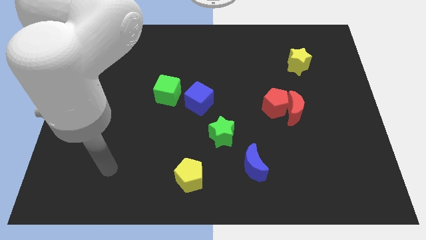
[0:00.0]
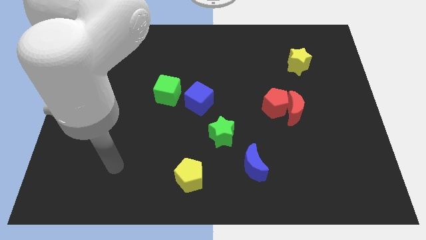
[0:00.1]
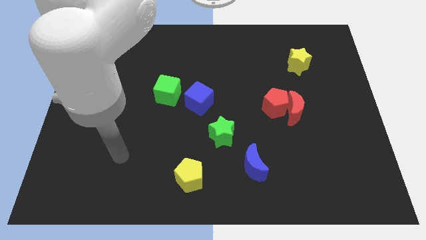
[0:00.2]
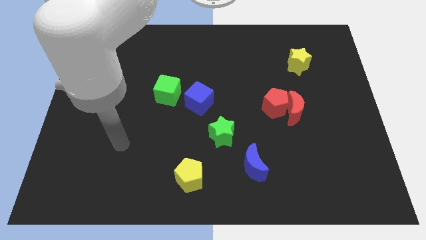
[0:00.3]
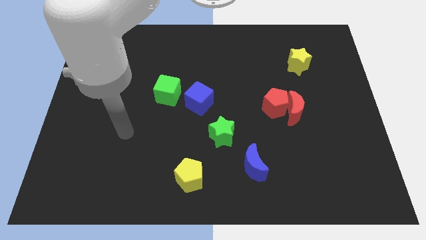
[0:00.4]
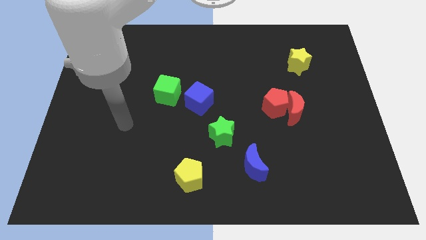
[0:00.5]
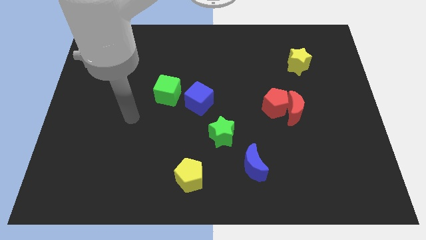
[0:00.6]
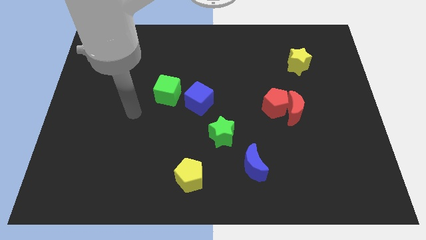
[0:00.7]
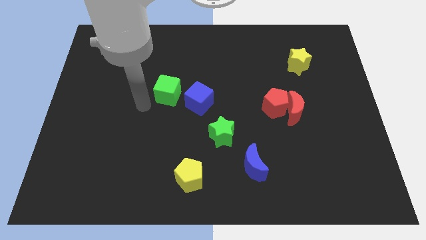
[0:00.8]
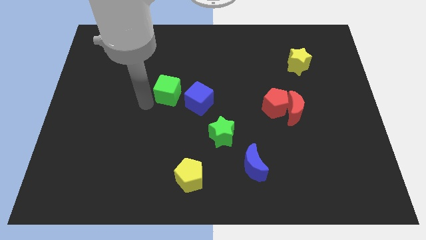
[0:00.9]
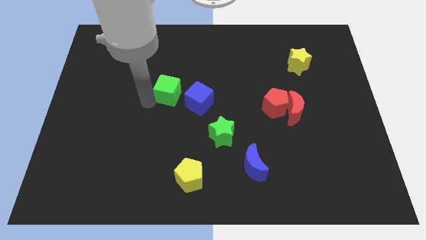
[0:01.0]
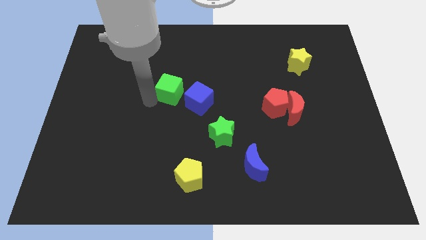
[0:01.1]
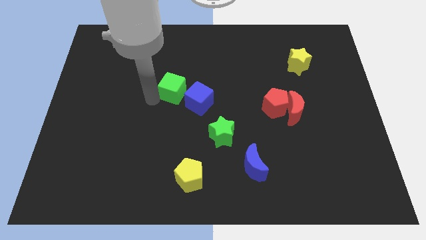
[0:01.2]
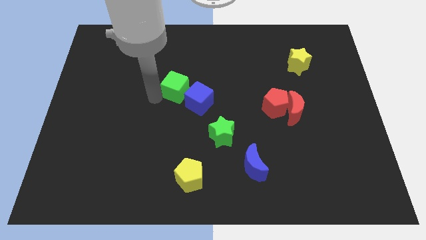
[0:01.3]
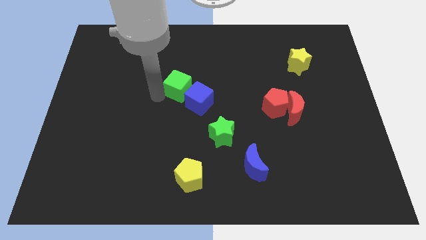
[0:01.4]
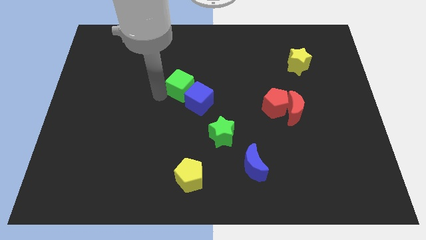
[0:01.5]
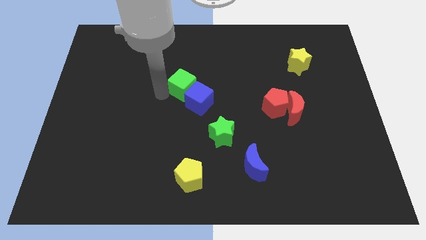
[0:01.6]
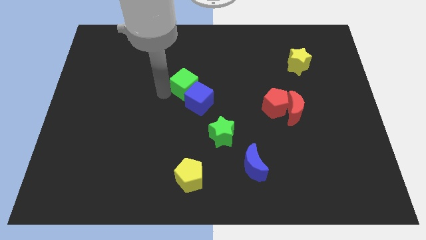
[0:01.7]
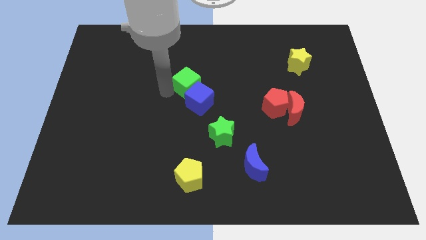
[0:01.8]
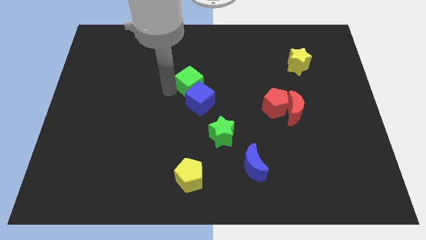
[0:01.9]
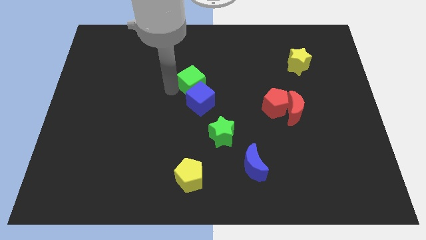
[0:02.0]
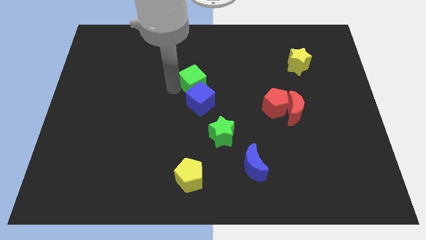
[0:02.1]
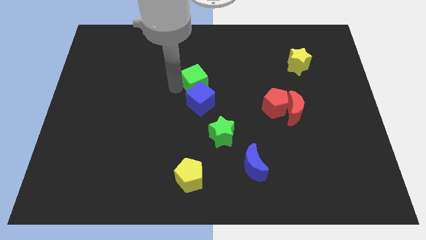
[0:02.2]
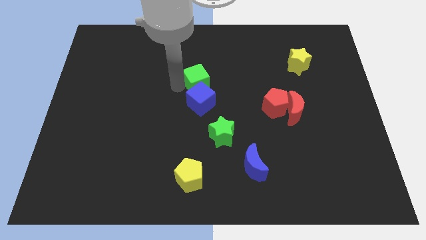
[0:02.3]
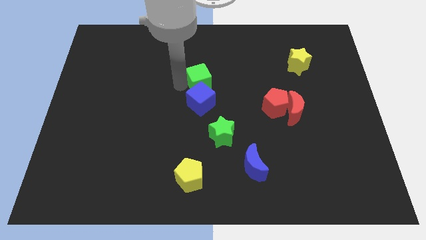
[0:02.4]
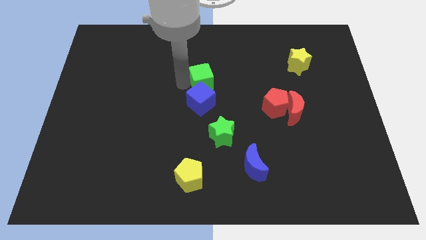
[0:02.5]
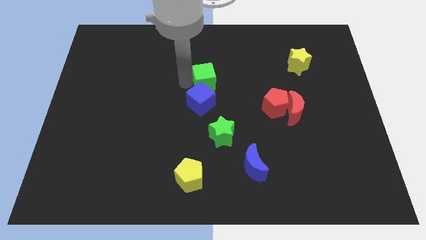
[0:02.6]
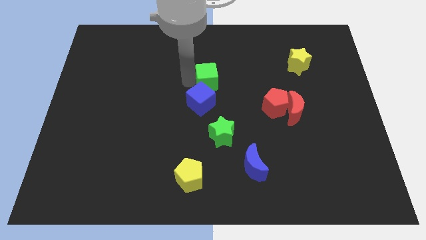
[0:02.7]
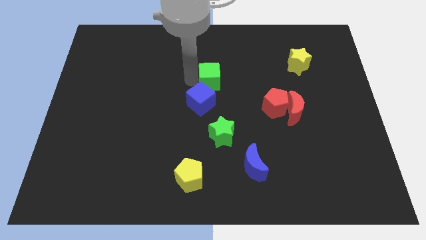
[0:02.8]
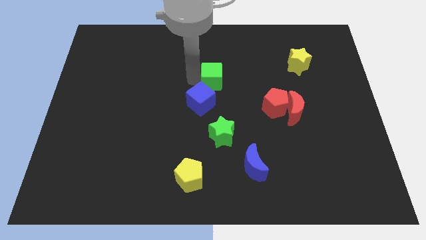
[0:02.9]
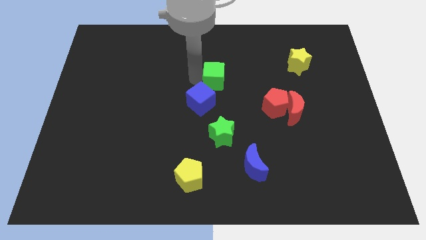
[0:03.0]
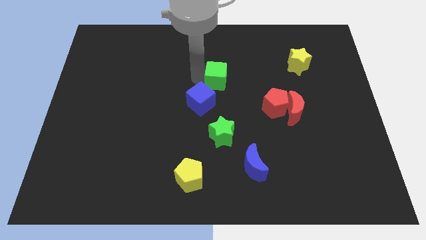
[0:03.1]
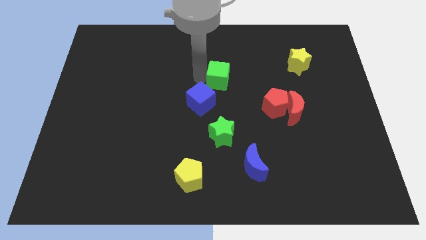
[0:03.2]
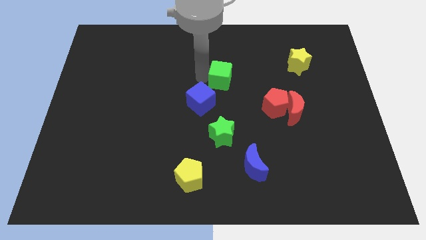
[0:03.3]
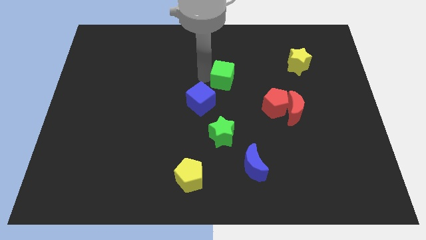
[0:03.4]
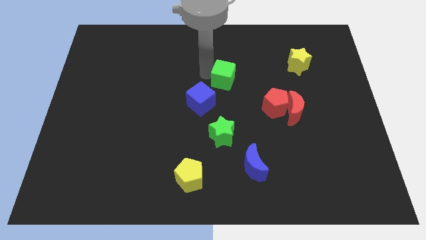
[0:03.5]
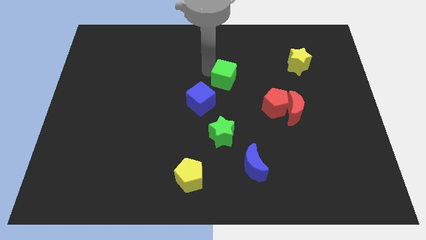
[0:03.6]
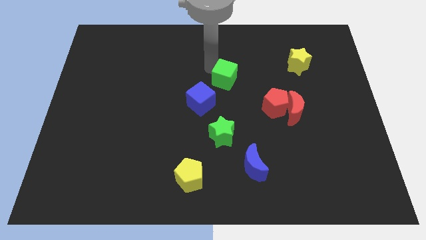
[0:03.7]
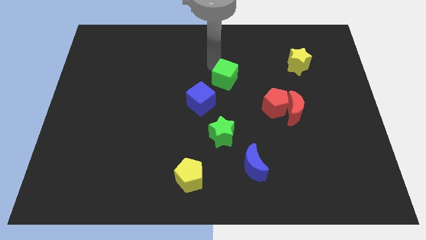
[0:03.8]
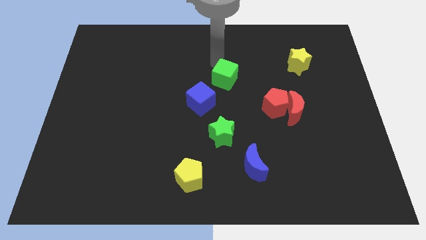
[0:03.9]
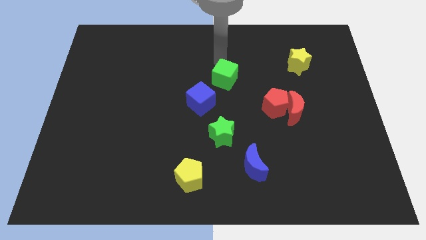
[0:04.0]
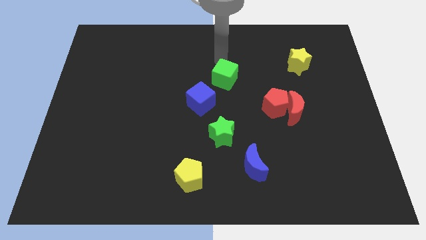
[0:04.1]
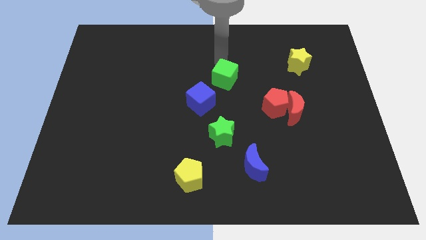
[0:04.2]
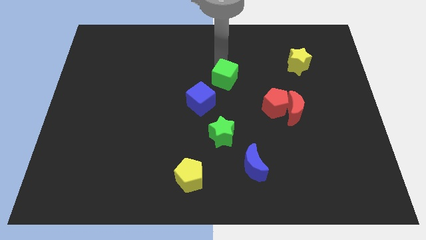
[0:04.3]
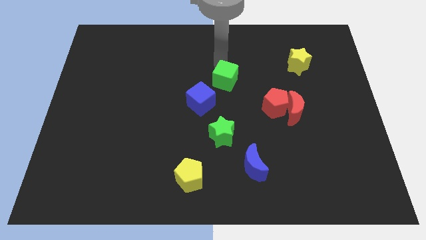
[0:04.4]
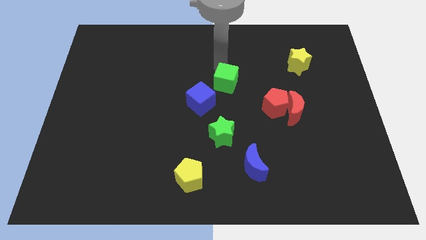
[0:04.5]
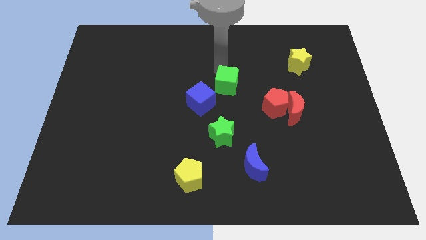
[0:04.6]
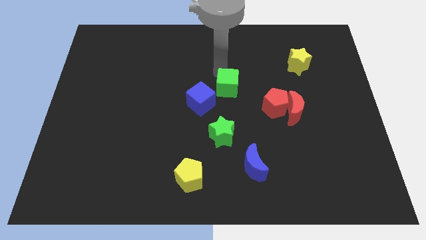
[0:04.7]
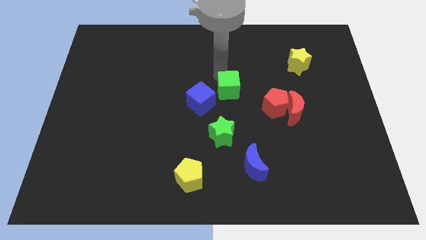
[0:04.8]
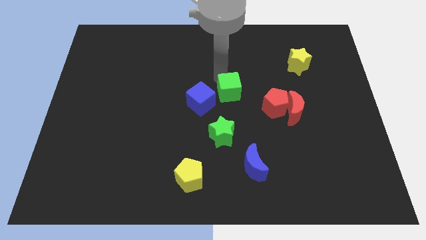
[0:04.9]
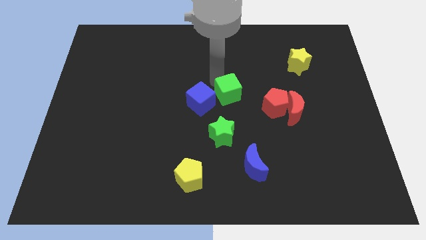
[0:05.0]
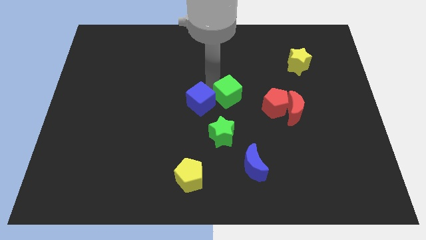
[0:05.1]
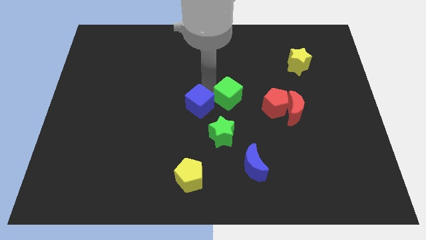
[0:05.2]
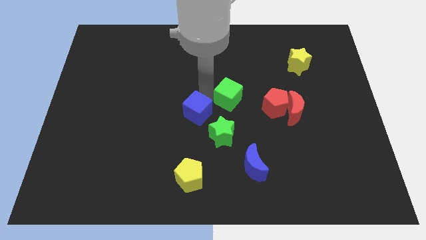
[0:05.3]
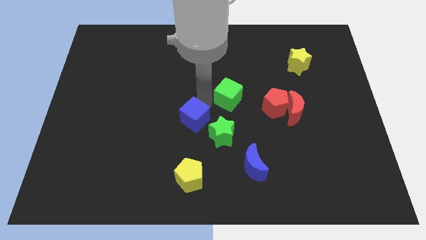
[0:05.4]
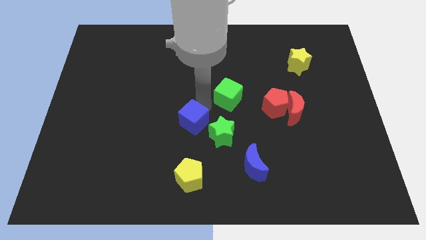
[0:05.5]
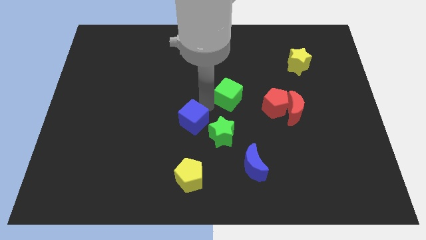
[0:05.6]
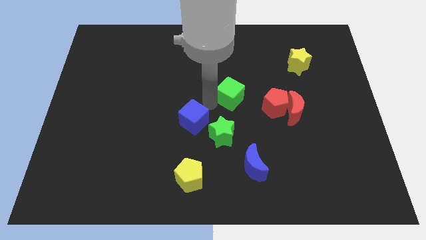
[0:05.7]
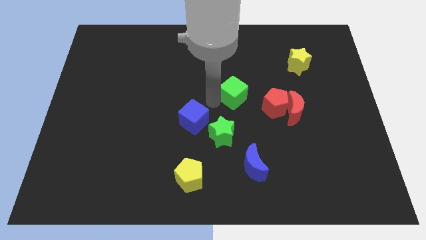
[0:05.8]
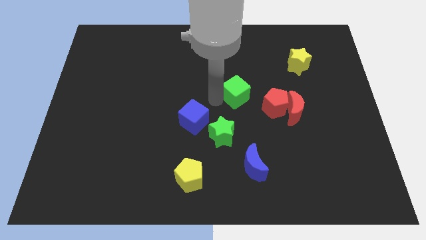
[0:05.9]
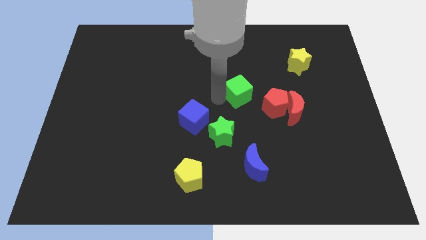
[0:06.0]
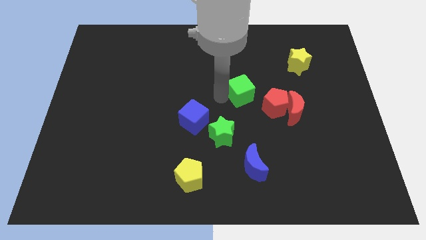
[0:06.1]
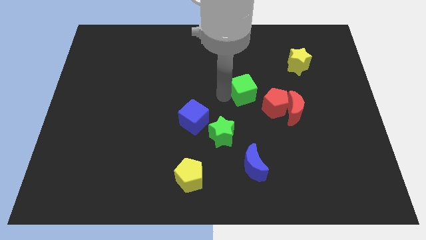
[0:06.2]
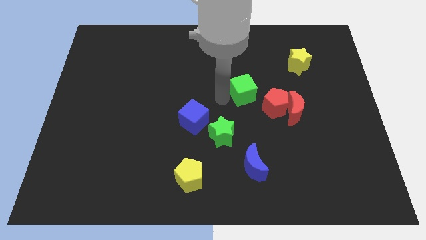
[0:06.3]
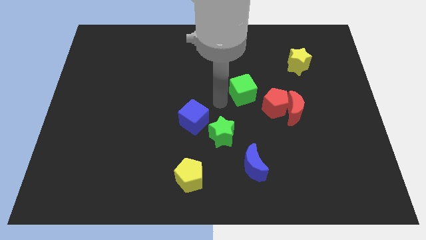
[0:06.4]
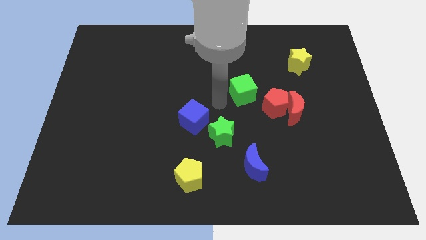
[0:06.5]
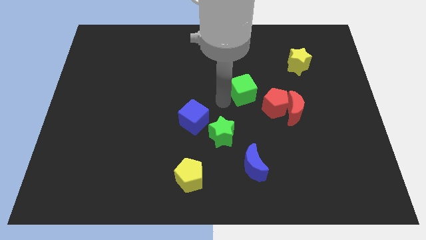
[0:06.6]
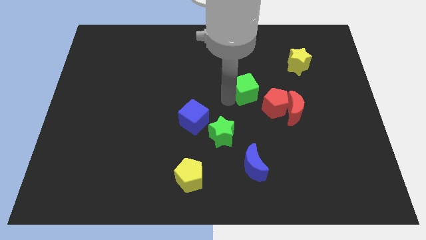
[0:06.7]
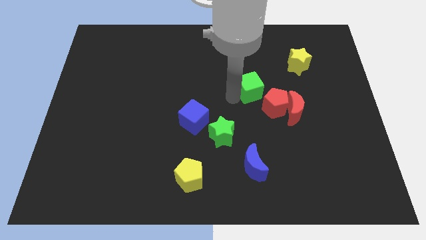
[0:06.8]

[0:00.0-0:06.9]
slide the green cube to the right

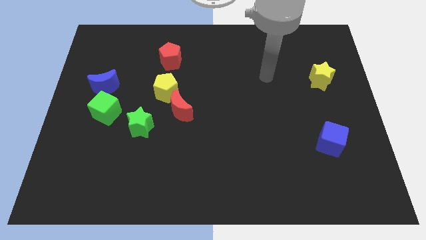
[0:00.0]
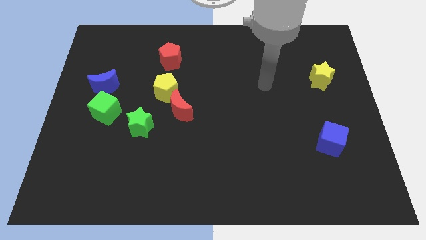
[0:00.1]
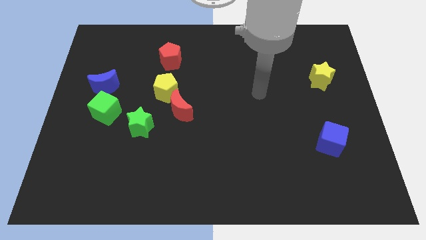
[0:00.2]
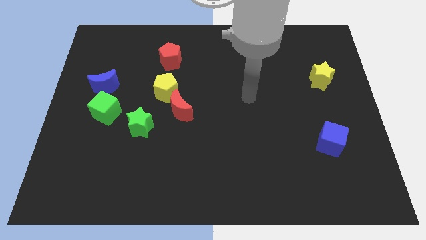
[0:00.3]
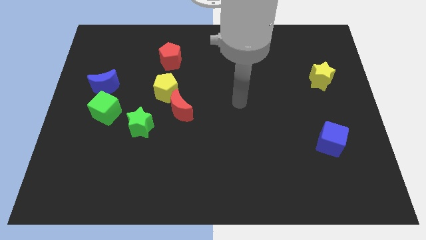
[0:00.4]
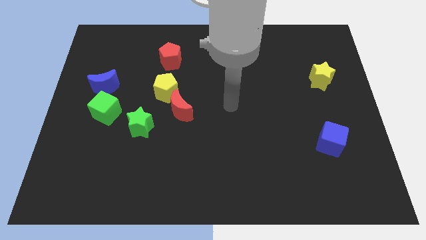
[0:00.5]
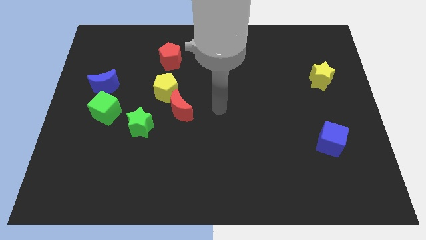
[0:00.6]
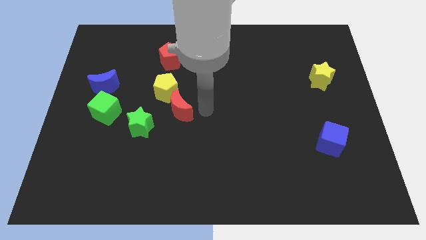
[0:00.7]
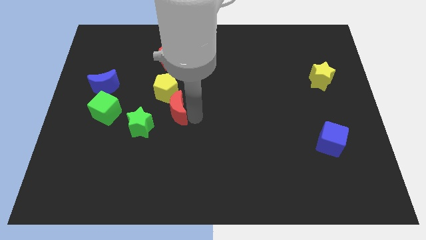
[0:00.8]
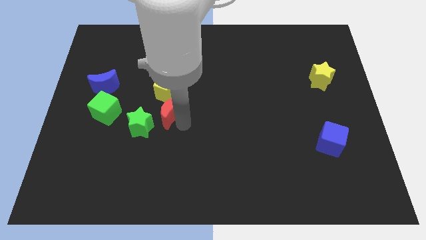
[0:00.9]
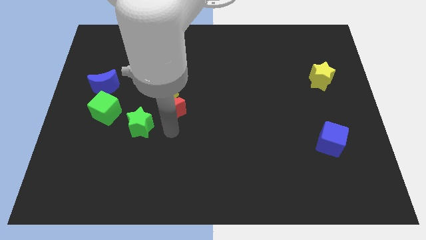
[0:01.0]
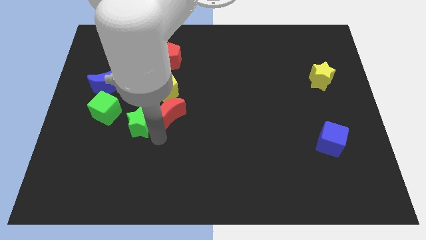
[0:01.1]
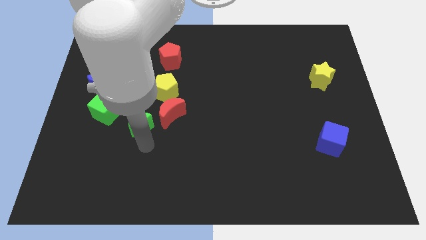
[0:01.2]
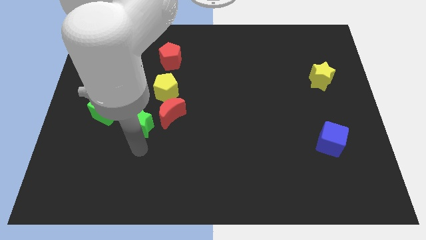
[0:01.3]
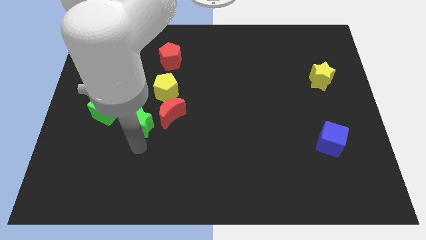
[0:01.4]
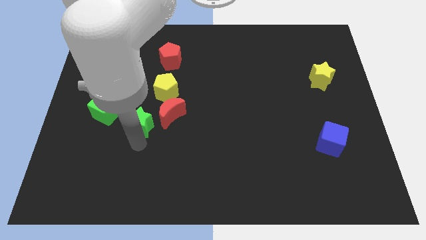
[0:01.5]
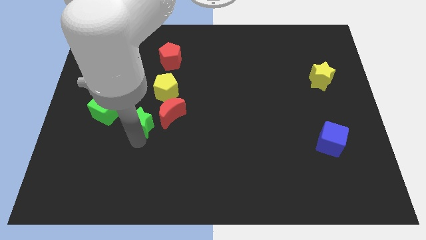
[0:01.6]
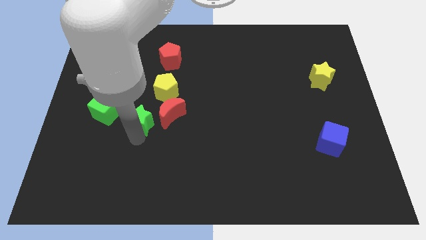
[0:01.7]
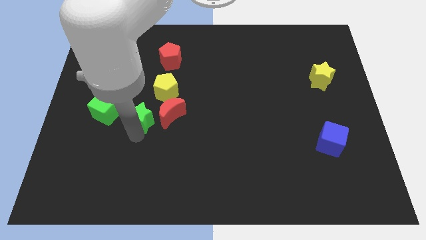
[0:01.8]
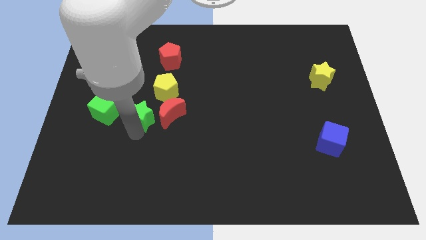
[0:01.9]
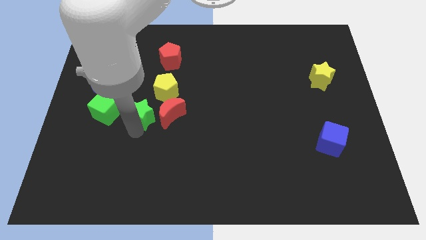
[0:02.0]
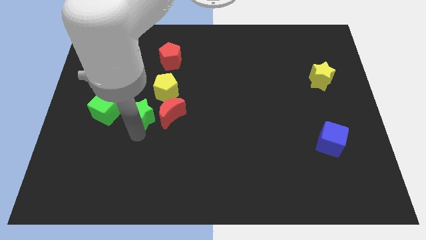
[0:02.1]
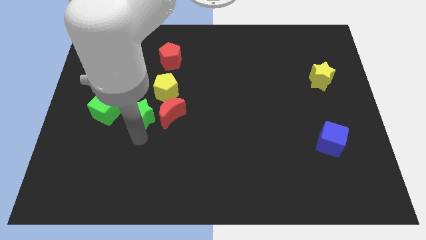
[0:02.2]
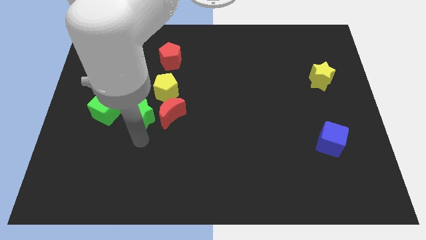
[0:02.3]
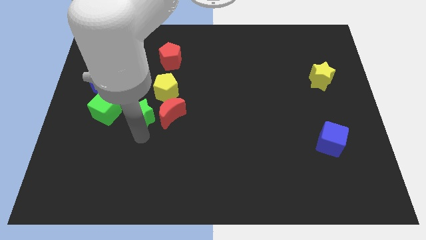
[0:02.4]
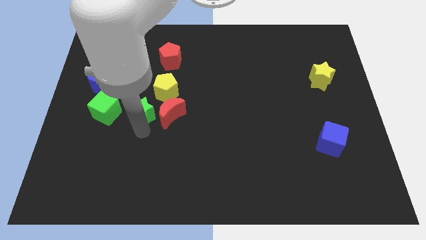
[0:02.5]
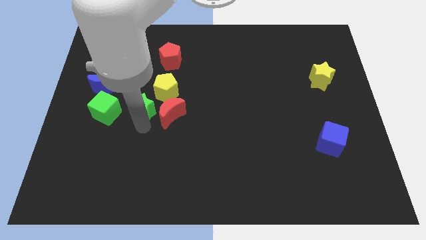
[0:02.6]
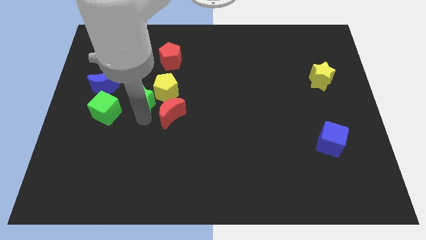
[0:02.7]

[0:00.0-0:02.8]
slide the green star upwards a little
